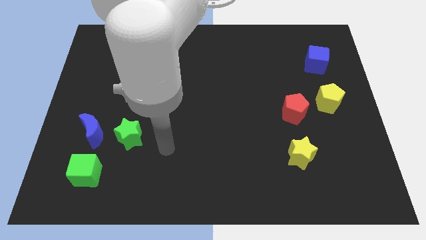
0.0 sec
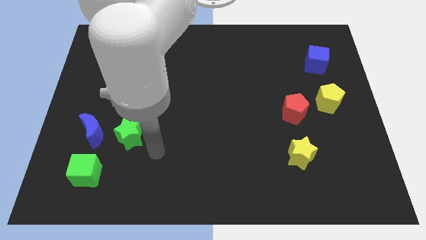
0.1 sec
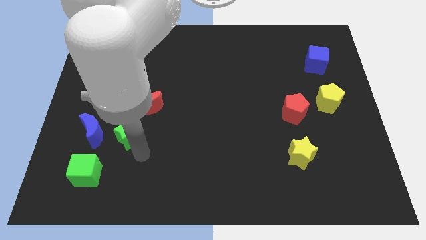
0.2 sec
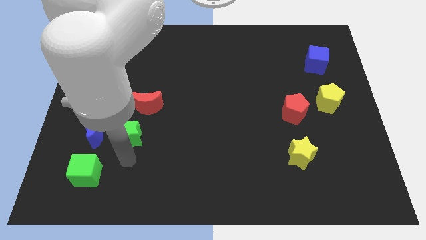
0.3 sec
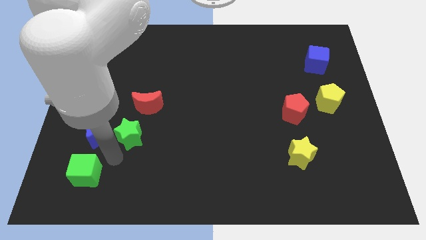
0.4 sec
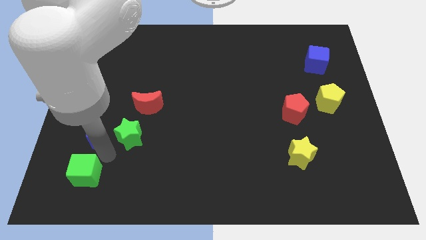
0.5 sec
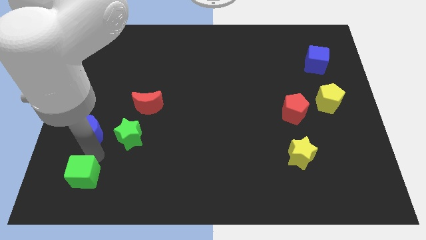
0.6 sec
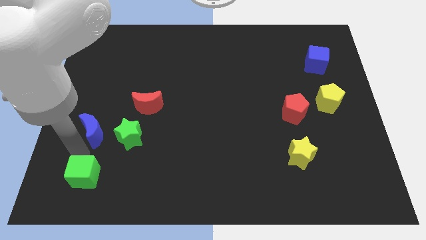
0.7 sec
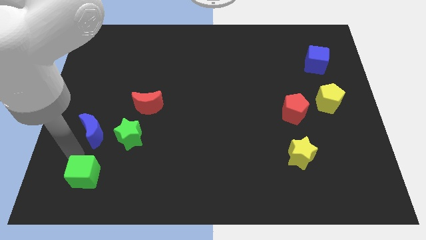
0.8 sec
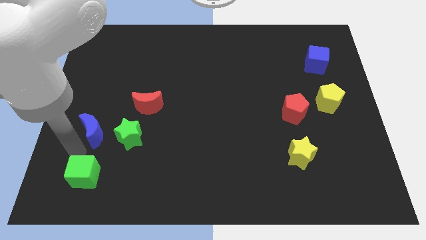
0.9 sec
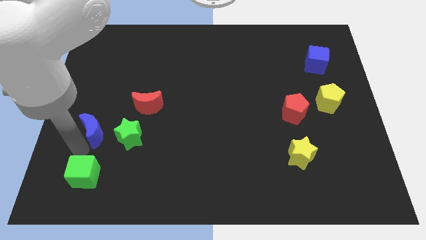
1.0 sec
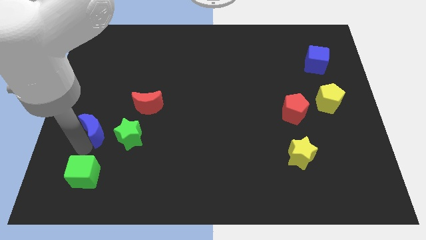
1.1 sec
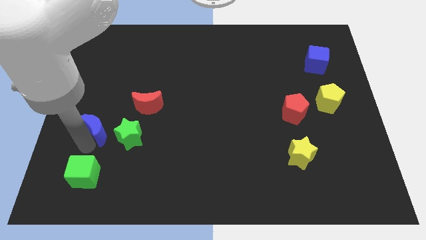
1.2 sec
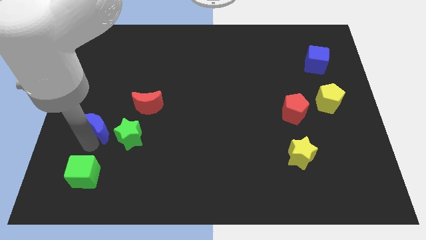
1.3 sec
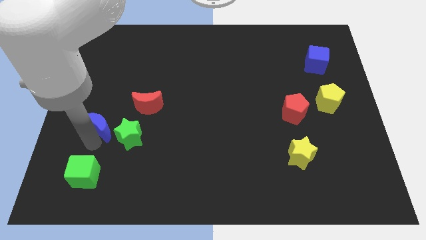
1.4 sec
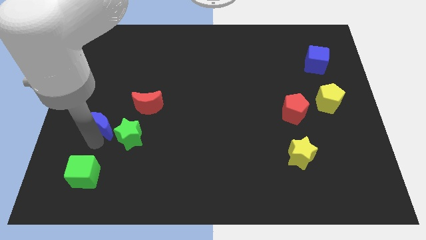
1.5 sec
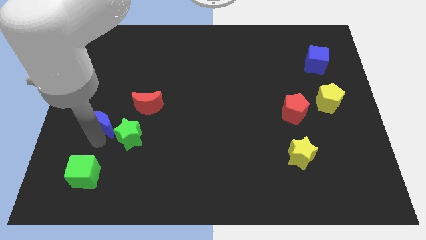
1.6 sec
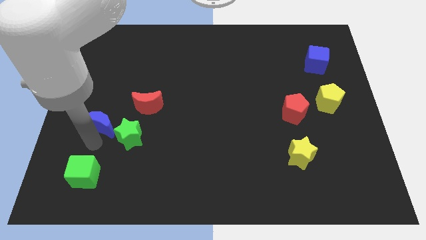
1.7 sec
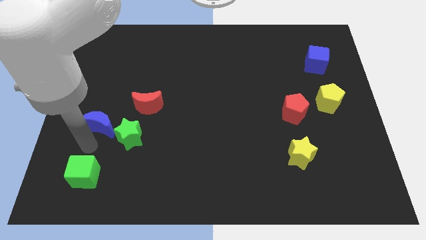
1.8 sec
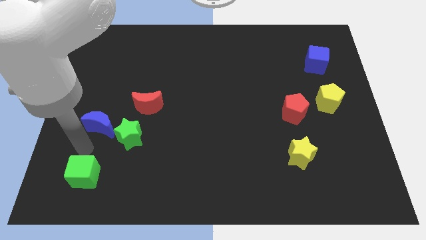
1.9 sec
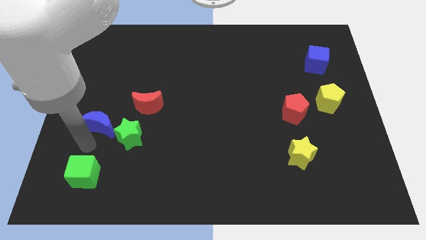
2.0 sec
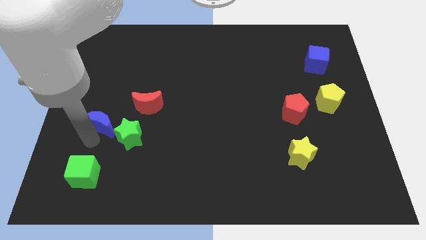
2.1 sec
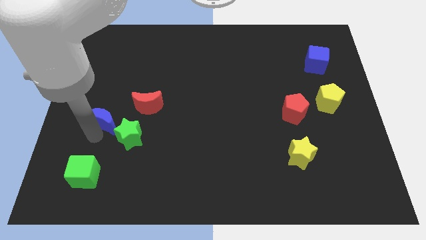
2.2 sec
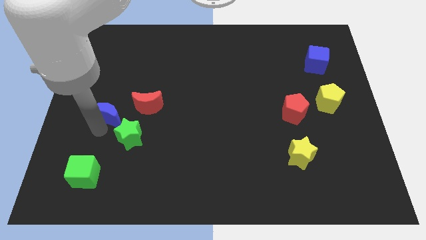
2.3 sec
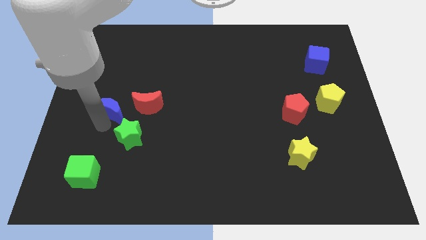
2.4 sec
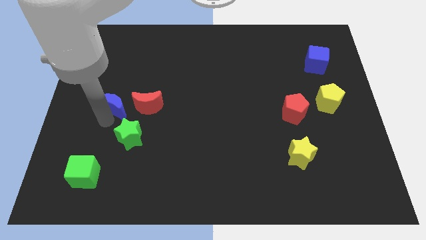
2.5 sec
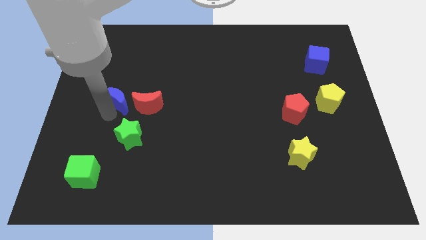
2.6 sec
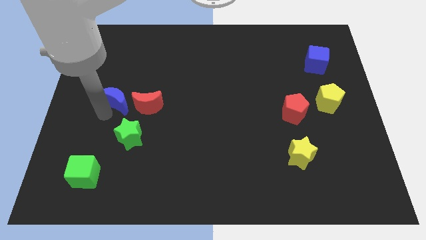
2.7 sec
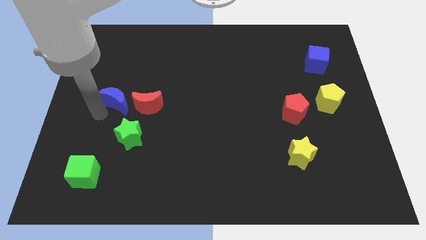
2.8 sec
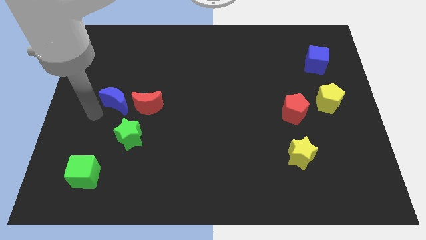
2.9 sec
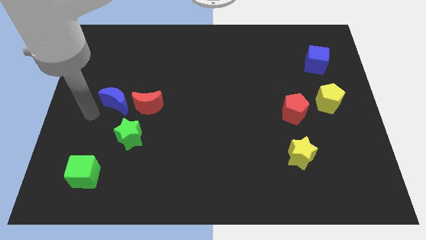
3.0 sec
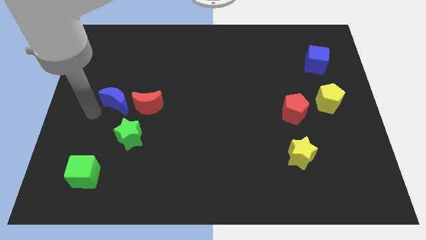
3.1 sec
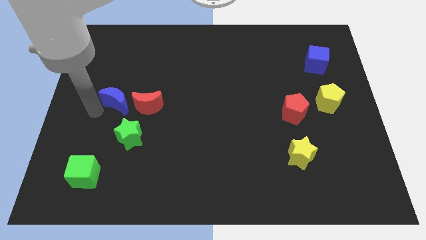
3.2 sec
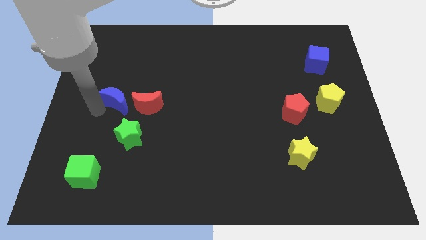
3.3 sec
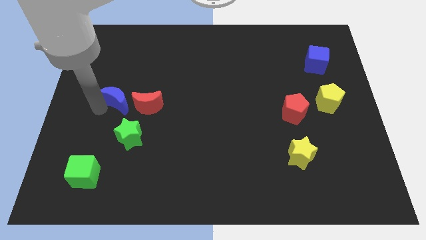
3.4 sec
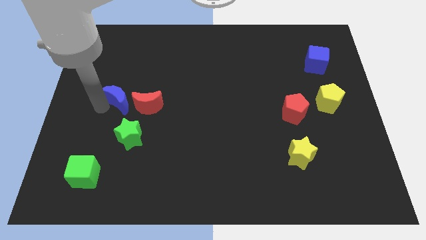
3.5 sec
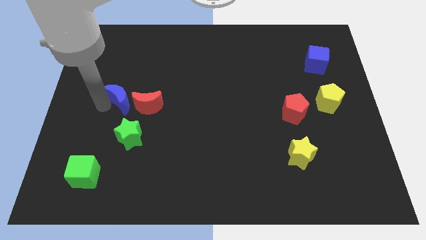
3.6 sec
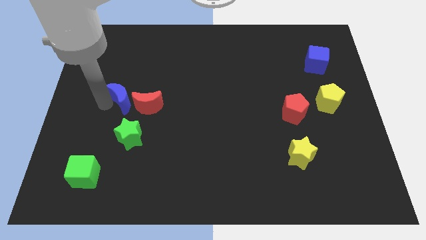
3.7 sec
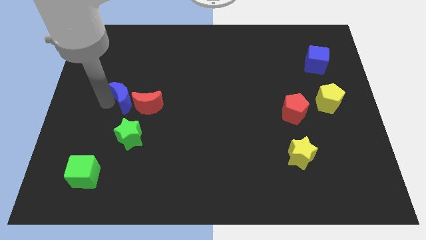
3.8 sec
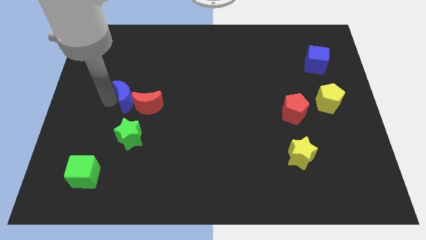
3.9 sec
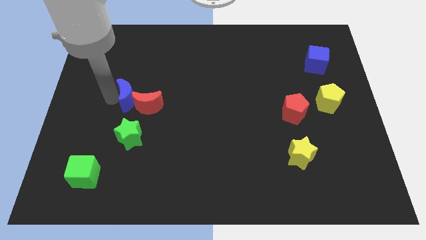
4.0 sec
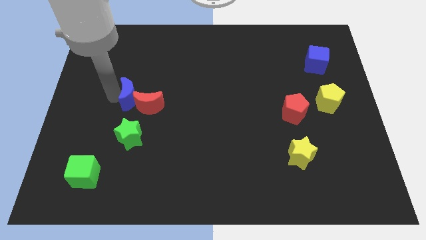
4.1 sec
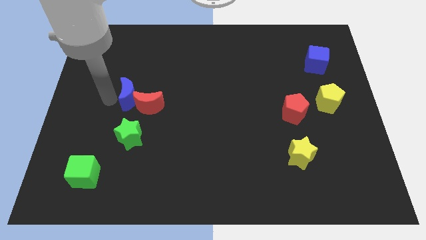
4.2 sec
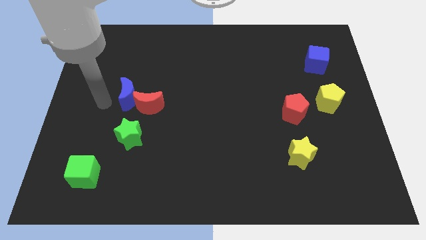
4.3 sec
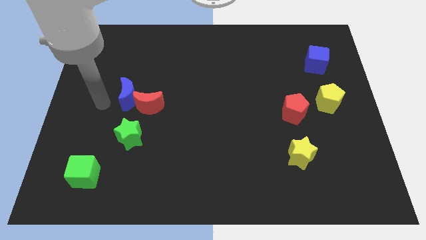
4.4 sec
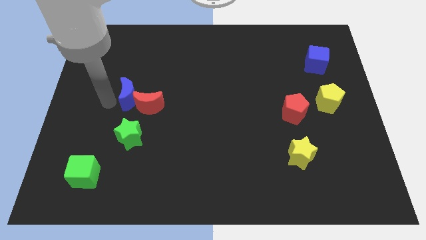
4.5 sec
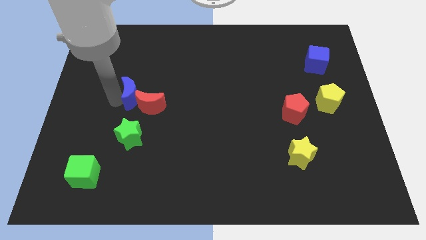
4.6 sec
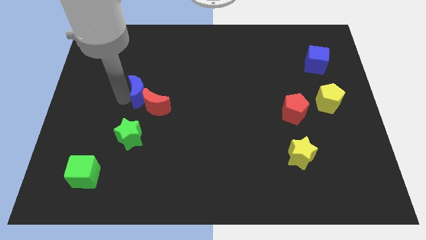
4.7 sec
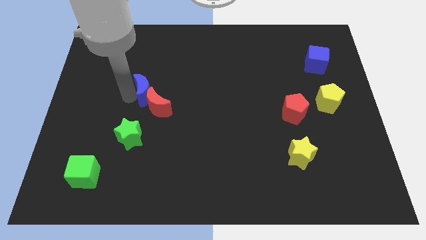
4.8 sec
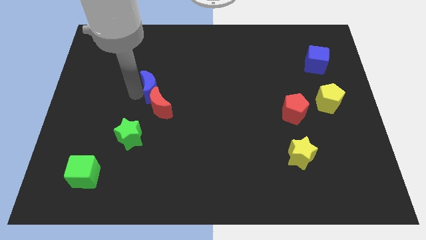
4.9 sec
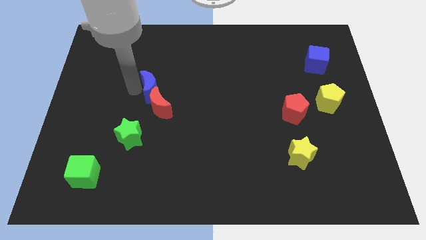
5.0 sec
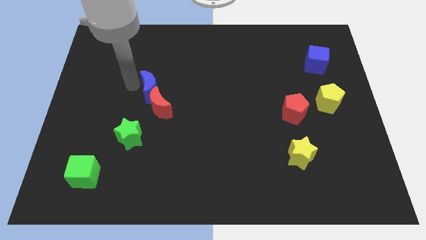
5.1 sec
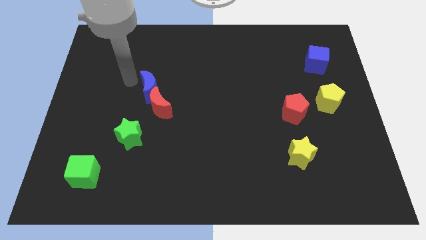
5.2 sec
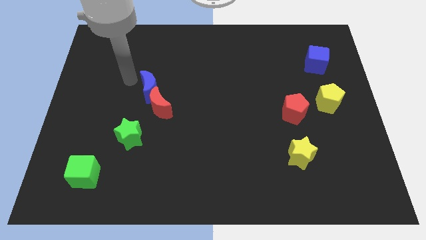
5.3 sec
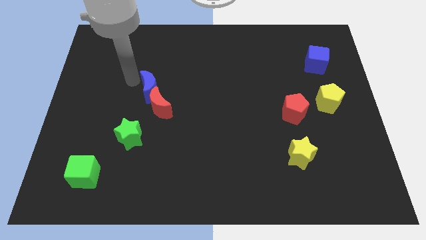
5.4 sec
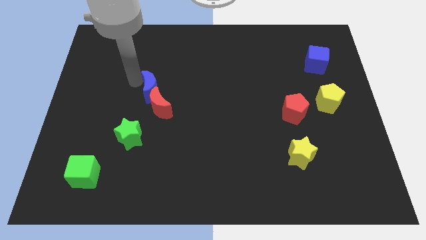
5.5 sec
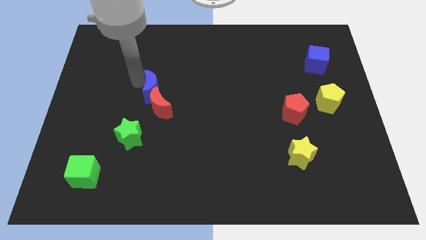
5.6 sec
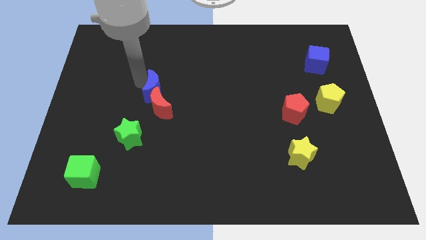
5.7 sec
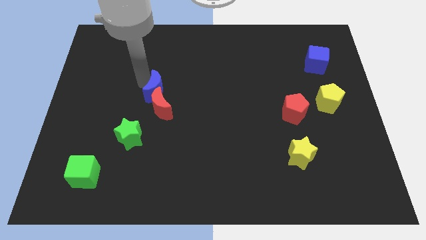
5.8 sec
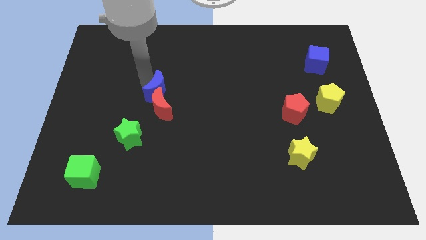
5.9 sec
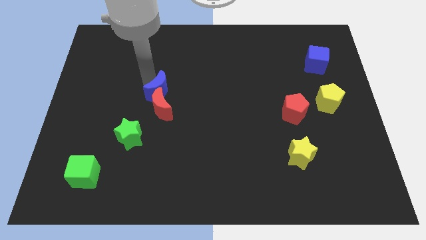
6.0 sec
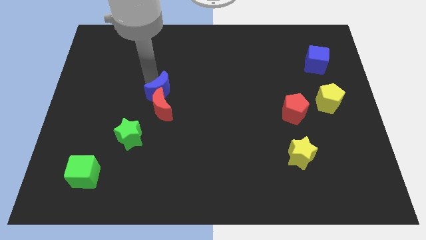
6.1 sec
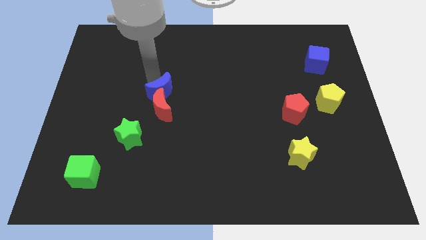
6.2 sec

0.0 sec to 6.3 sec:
push the blue moon to the center of the board

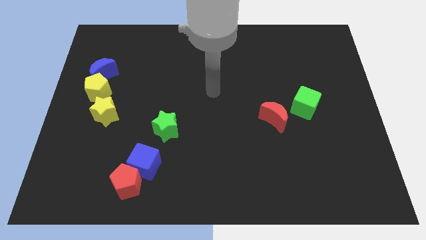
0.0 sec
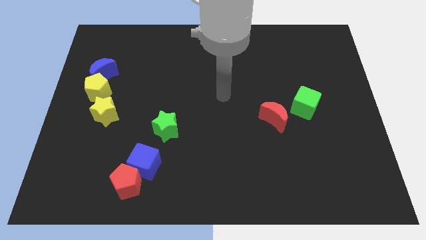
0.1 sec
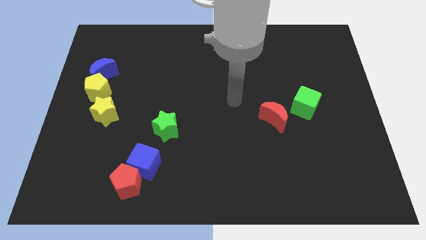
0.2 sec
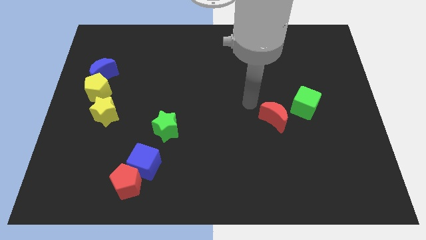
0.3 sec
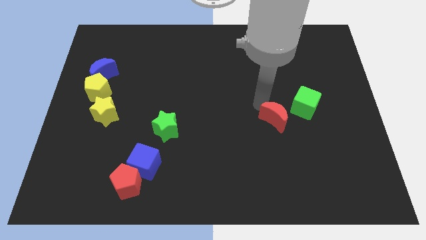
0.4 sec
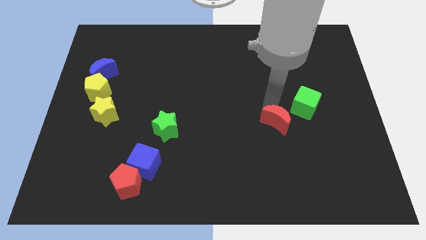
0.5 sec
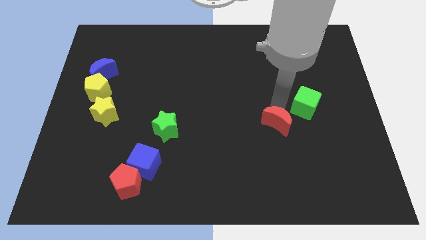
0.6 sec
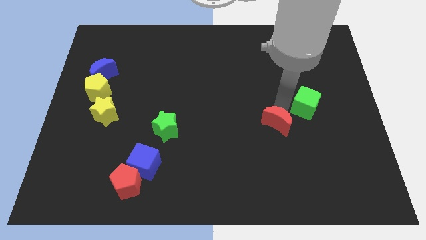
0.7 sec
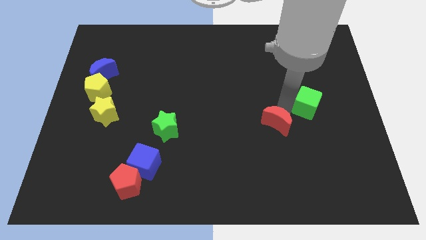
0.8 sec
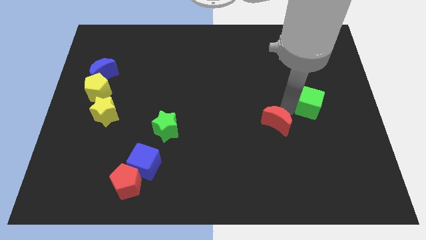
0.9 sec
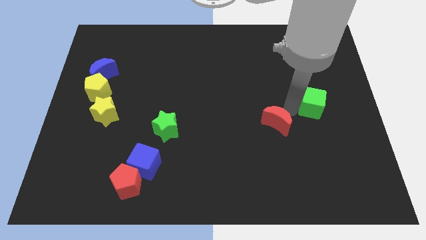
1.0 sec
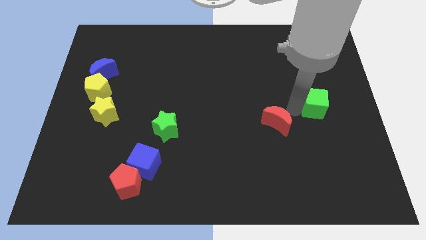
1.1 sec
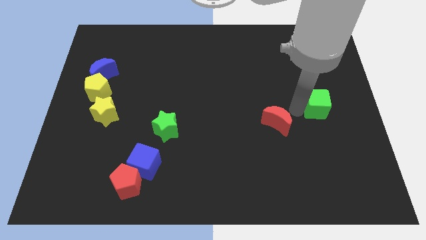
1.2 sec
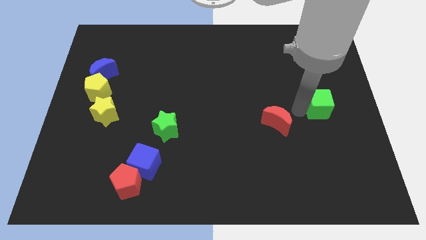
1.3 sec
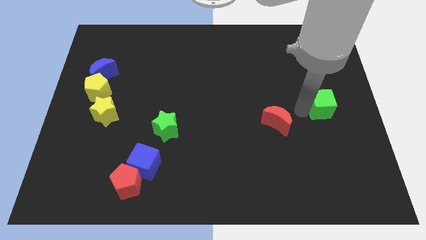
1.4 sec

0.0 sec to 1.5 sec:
move the green cube to the right side

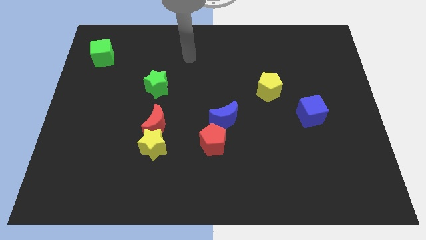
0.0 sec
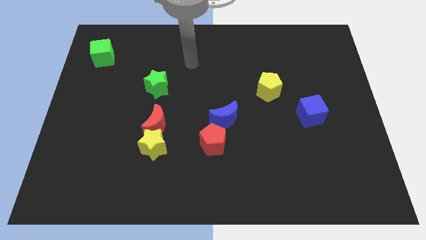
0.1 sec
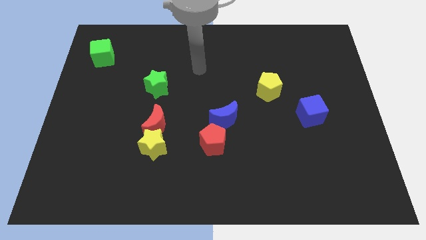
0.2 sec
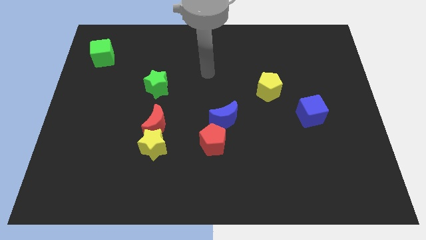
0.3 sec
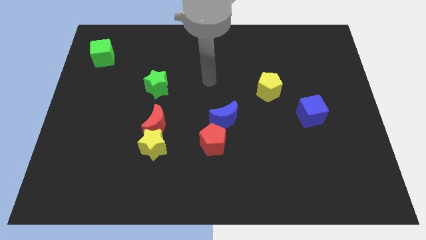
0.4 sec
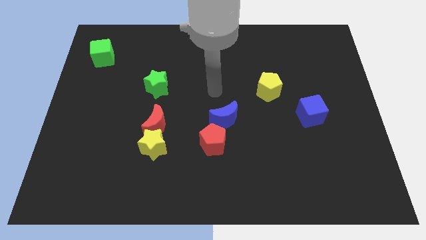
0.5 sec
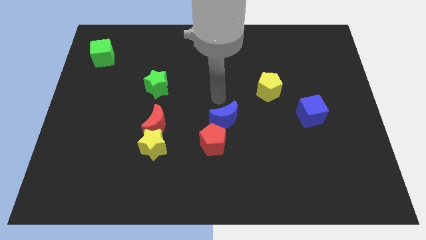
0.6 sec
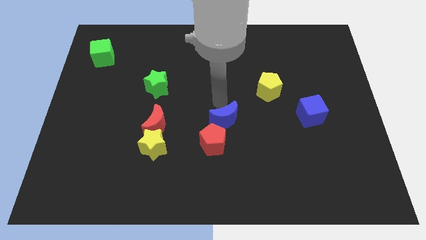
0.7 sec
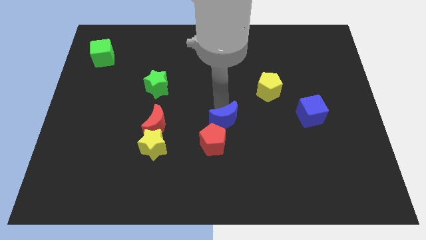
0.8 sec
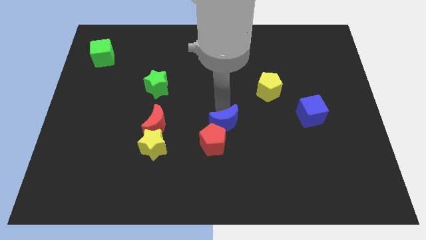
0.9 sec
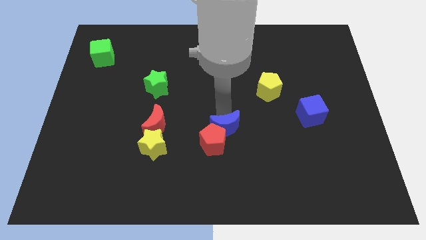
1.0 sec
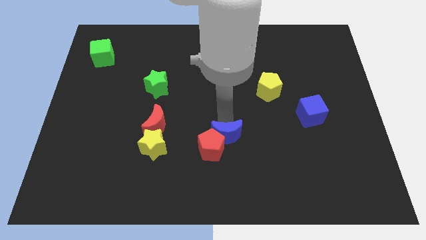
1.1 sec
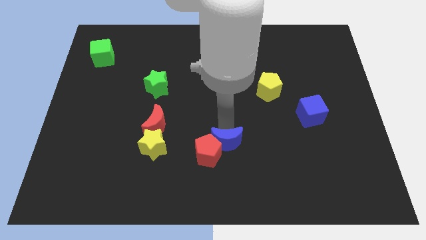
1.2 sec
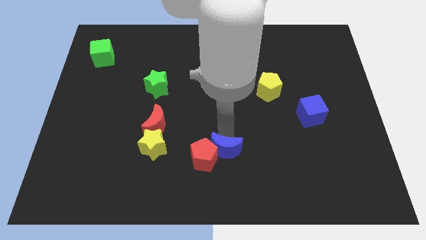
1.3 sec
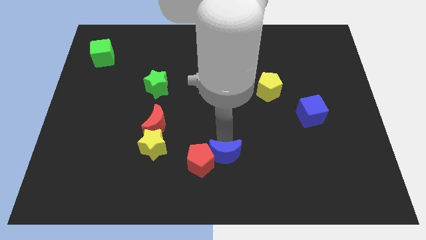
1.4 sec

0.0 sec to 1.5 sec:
push the blue moon to the bottom
